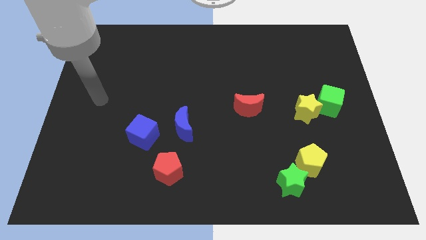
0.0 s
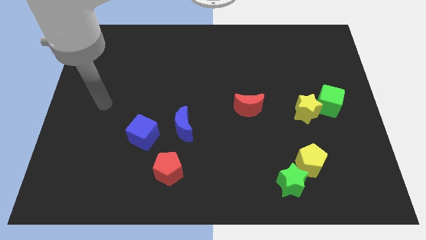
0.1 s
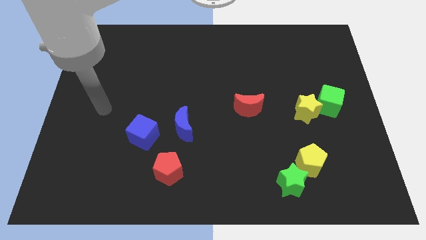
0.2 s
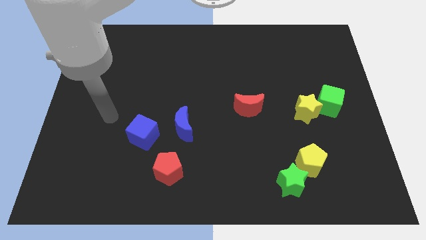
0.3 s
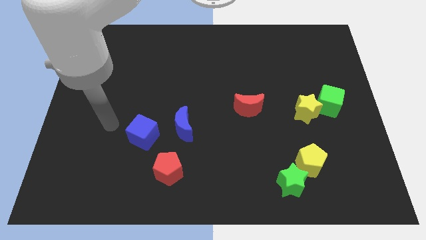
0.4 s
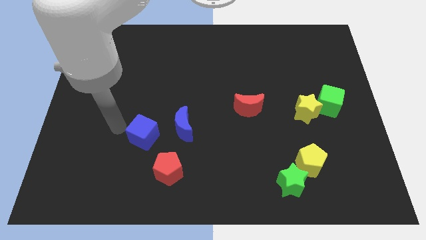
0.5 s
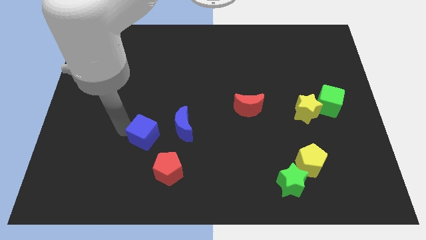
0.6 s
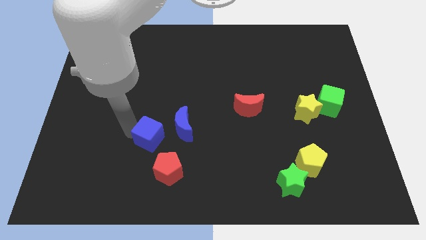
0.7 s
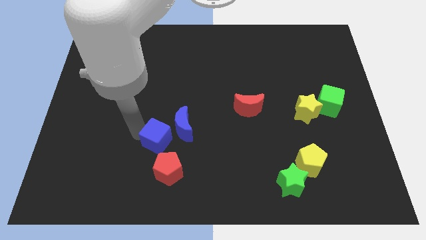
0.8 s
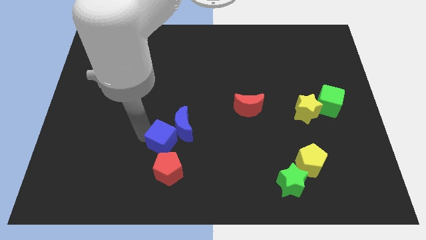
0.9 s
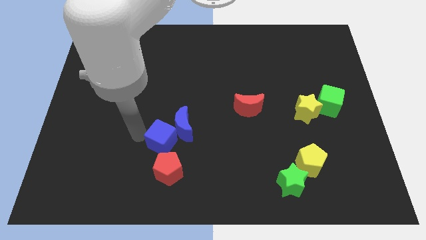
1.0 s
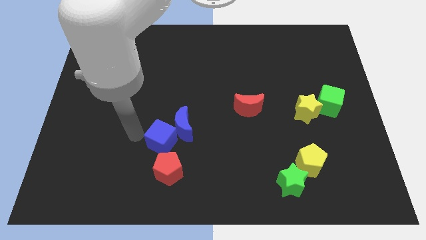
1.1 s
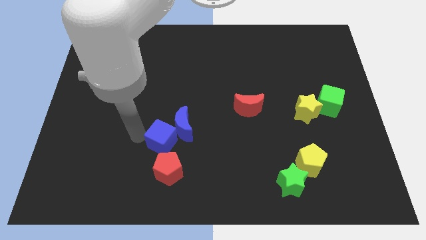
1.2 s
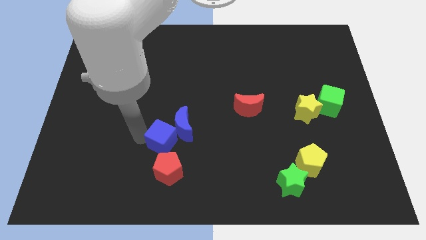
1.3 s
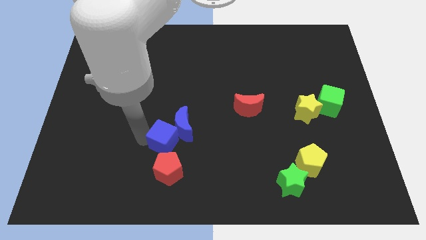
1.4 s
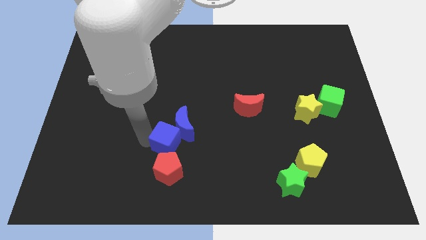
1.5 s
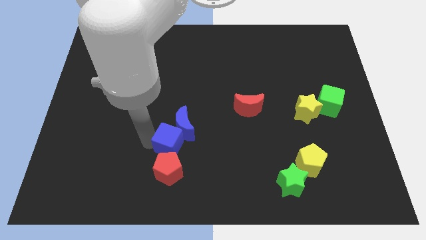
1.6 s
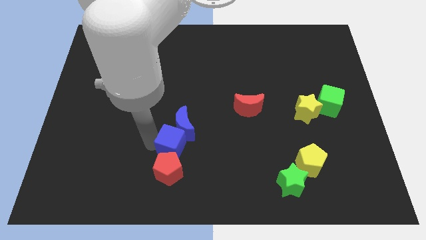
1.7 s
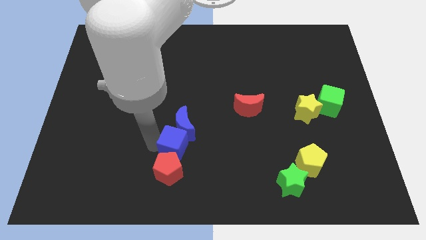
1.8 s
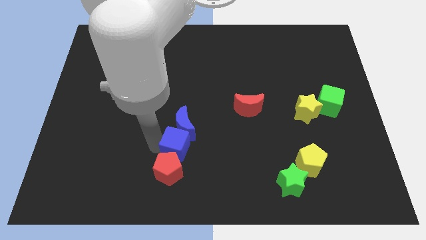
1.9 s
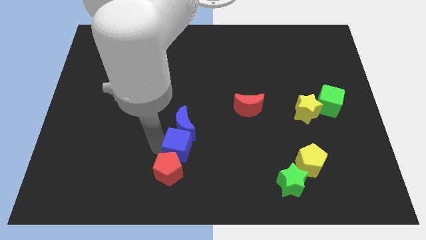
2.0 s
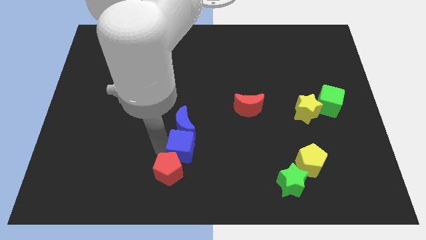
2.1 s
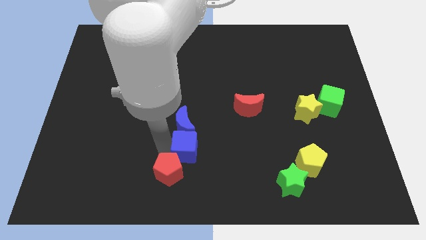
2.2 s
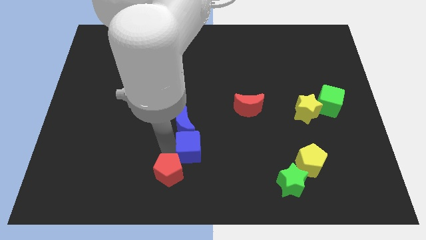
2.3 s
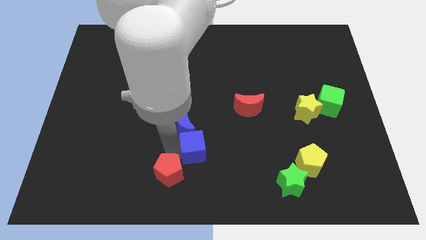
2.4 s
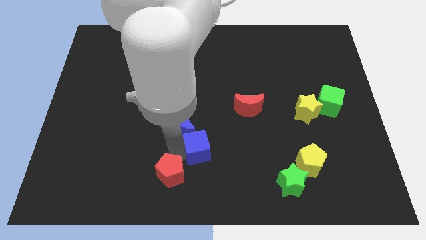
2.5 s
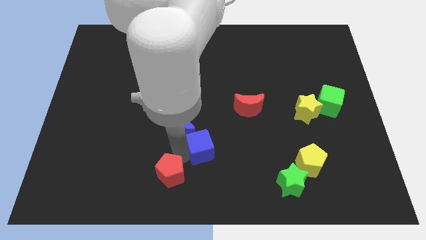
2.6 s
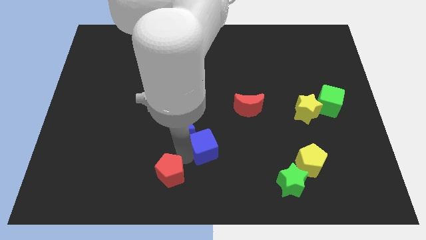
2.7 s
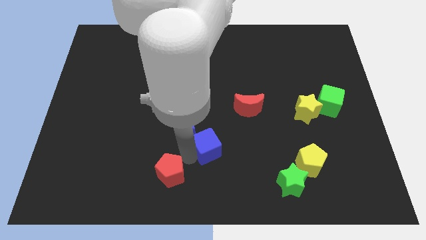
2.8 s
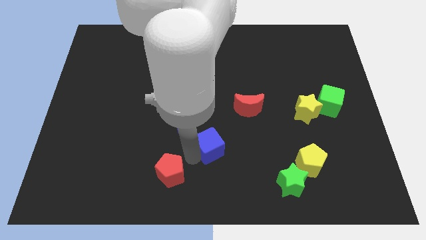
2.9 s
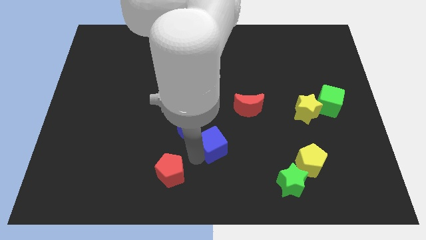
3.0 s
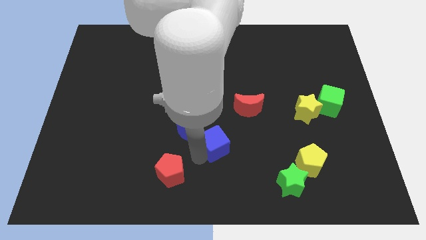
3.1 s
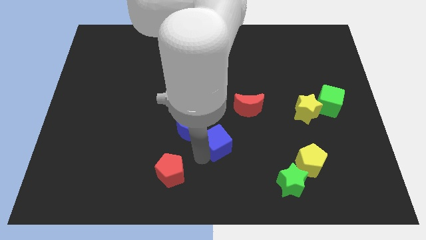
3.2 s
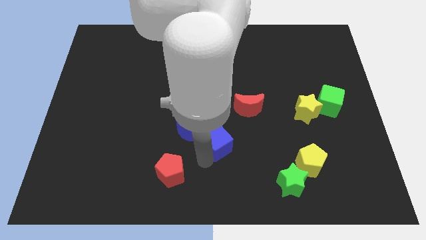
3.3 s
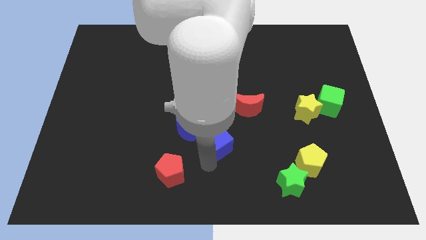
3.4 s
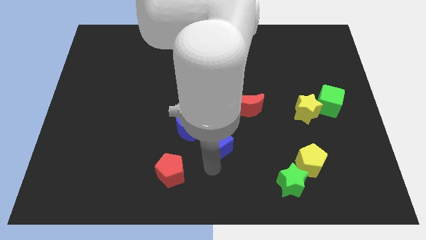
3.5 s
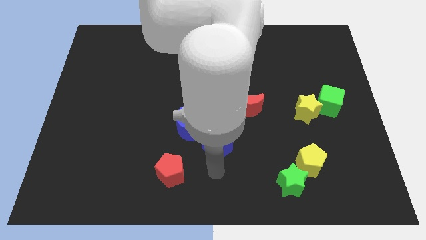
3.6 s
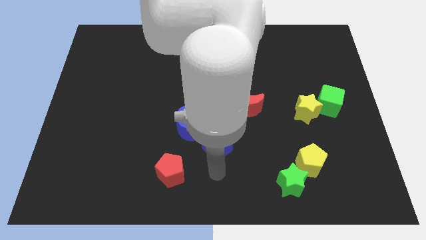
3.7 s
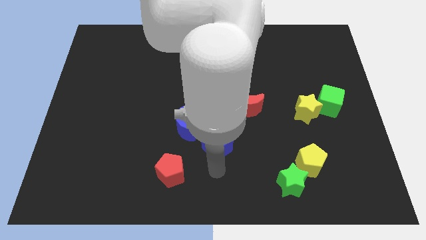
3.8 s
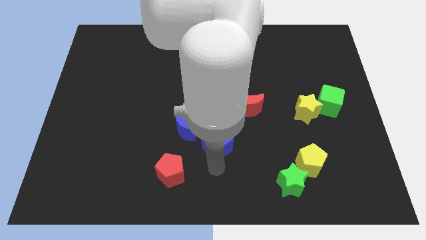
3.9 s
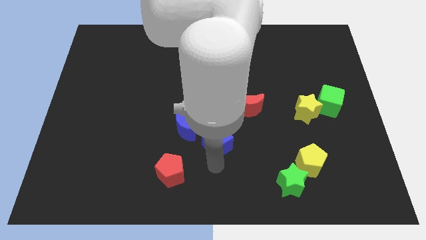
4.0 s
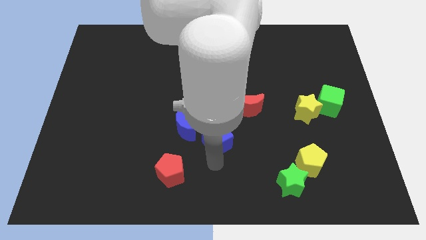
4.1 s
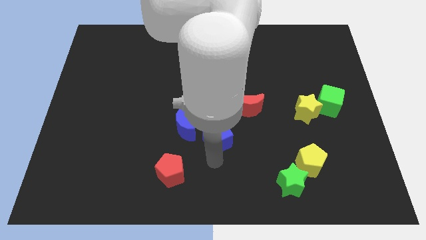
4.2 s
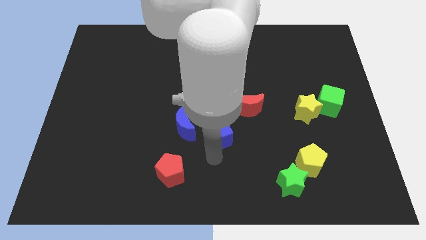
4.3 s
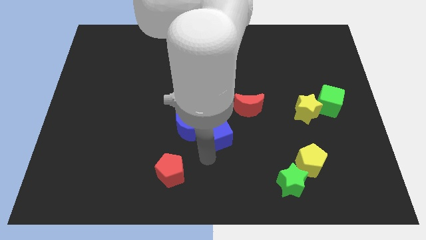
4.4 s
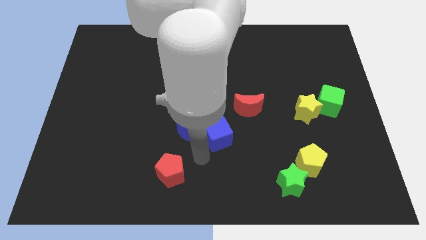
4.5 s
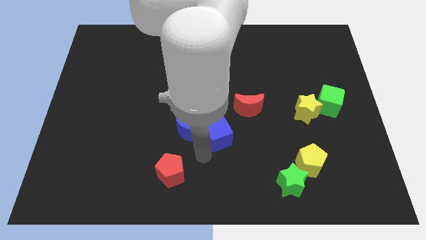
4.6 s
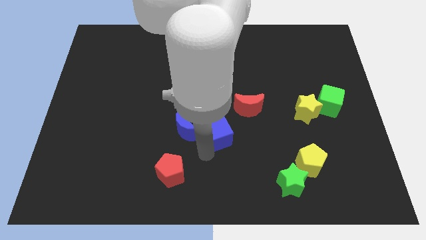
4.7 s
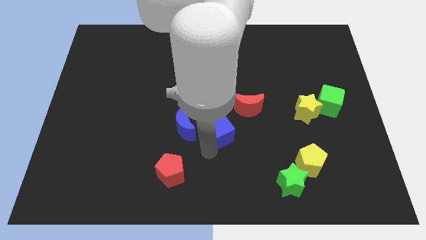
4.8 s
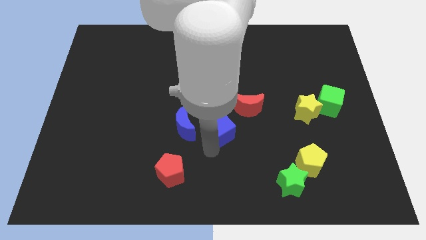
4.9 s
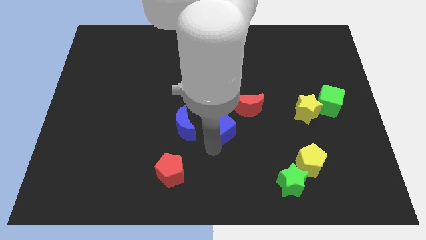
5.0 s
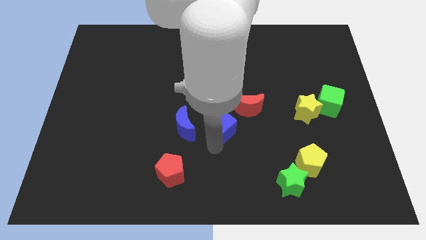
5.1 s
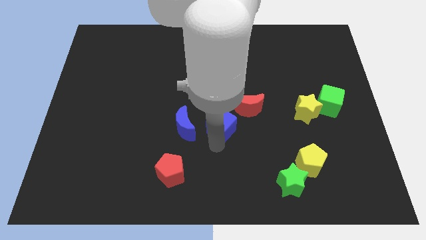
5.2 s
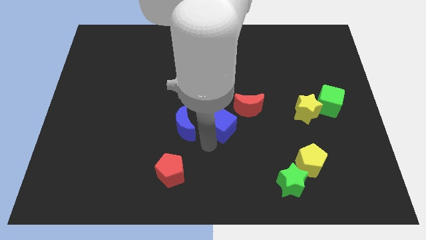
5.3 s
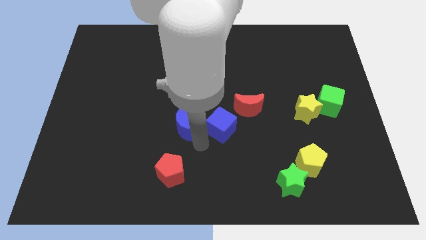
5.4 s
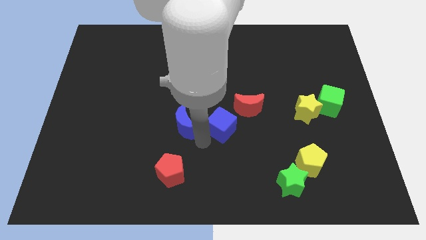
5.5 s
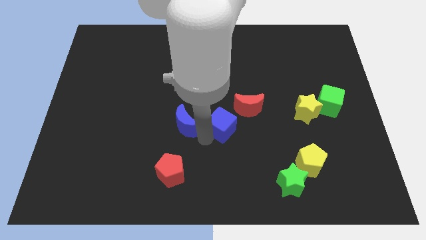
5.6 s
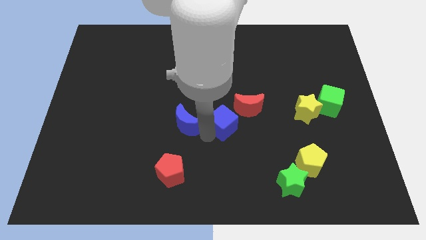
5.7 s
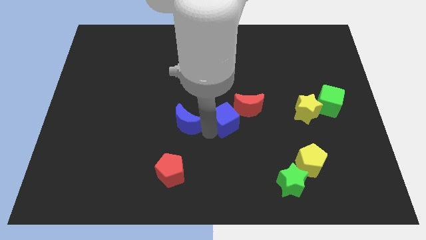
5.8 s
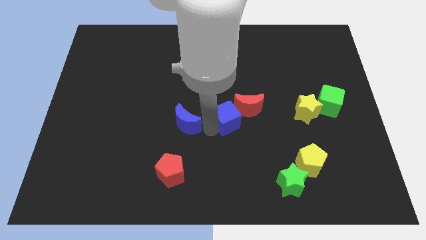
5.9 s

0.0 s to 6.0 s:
put the blue cube next to the red moon

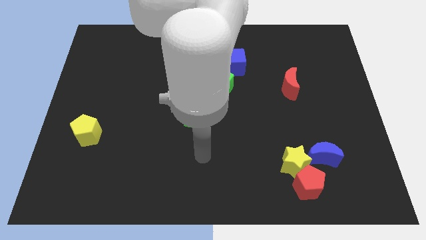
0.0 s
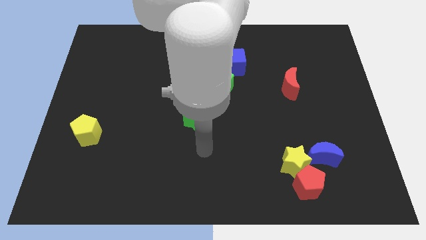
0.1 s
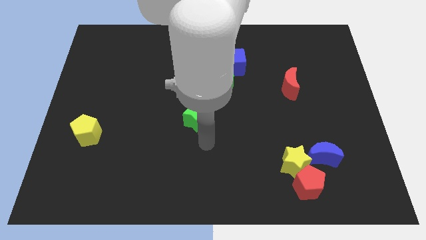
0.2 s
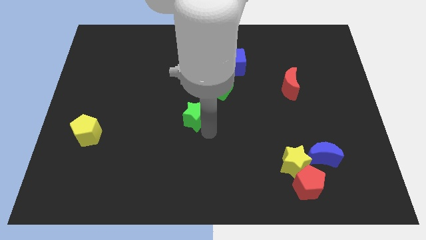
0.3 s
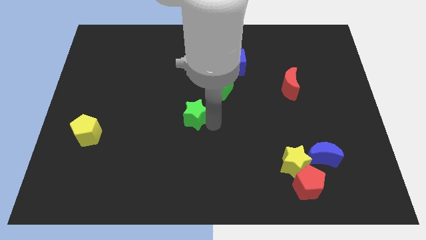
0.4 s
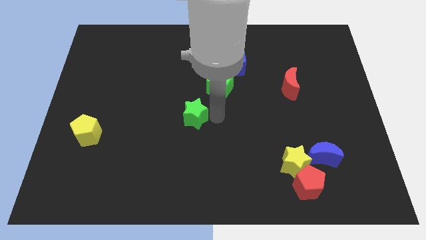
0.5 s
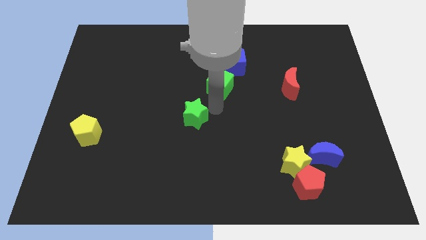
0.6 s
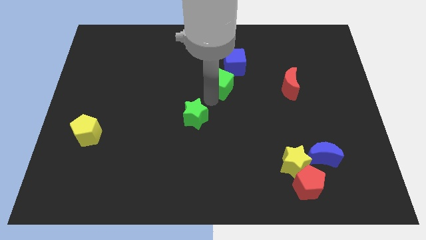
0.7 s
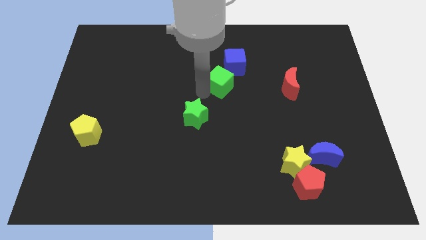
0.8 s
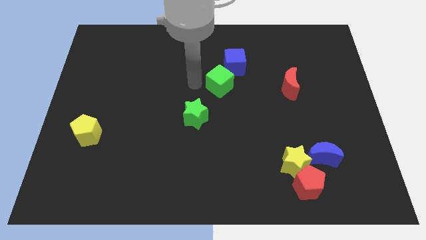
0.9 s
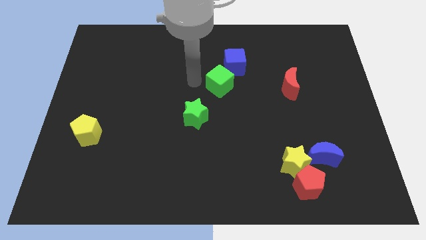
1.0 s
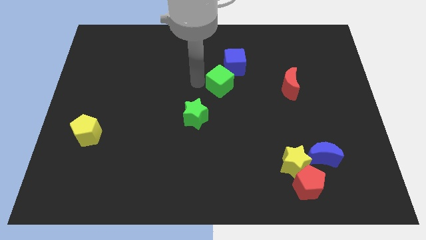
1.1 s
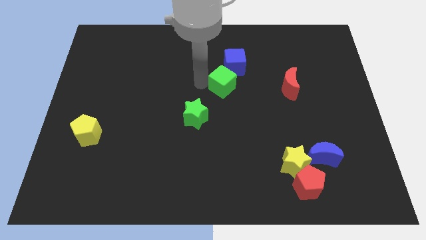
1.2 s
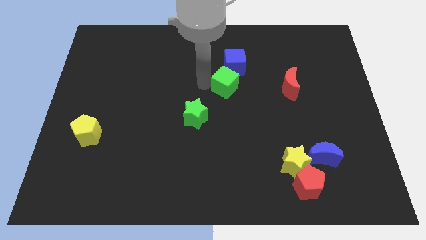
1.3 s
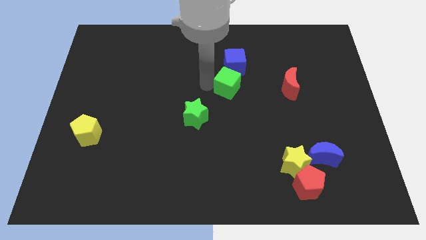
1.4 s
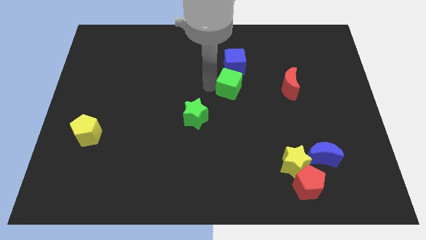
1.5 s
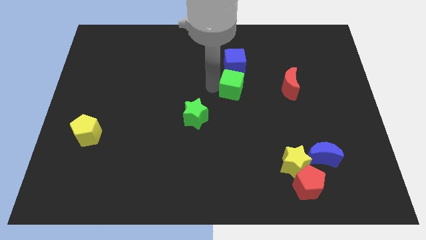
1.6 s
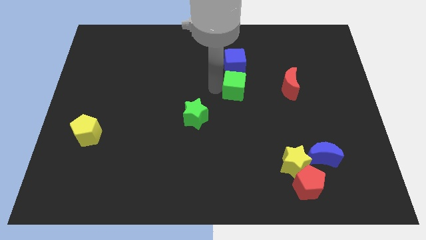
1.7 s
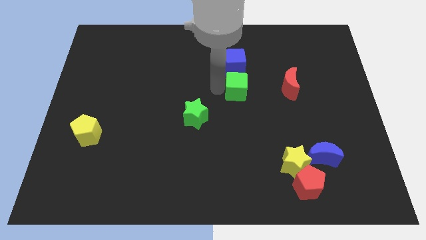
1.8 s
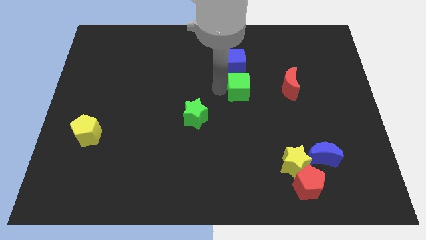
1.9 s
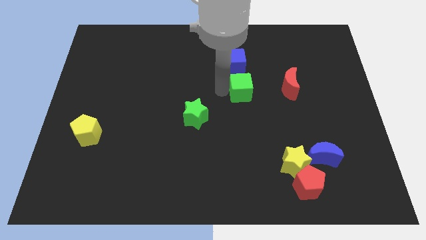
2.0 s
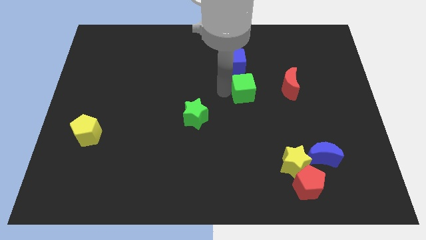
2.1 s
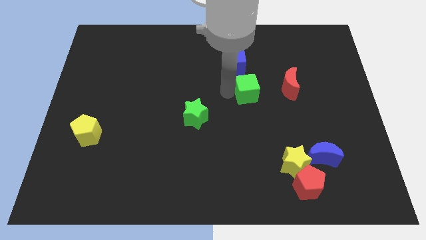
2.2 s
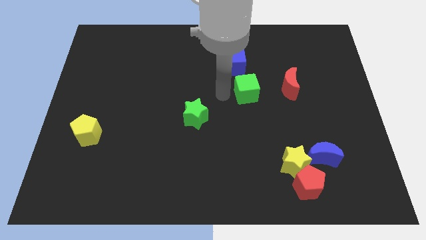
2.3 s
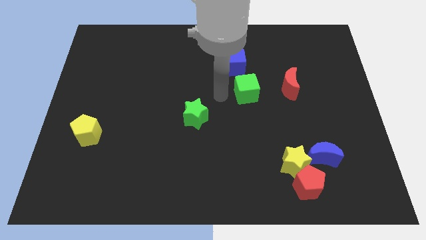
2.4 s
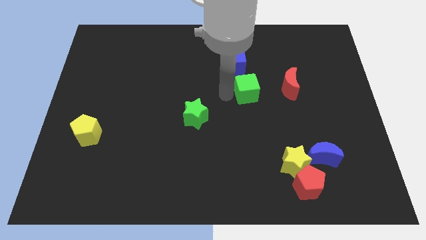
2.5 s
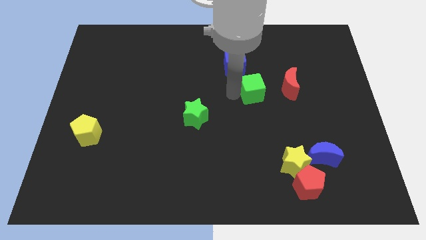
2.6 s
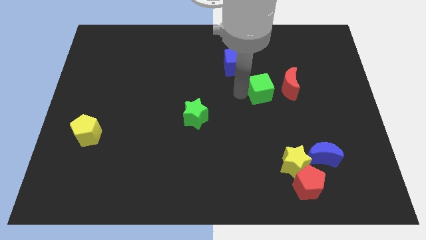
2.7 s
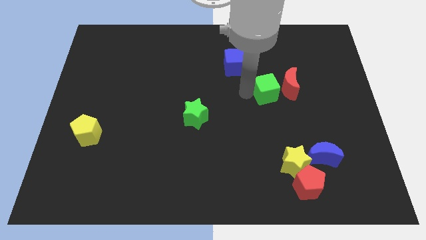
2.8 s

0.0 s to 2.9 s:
move the green cube to the red moon
